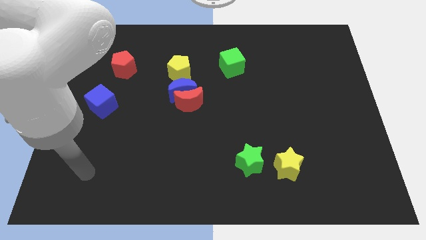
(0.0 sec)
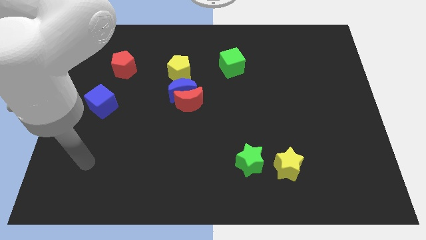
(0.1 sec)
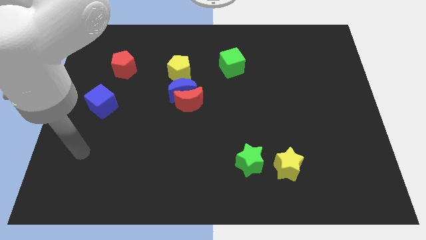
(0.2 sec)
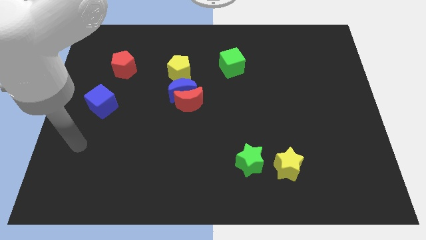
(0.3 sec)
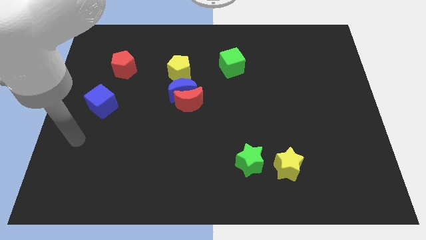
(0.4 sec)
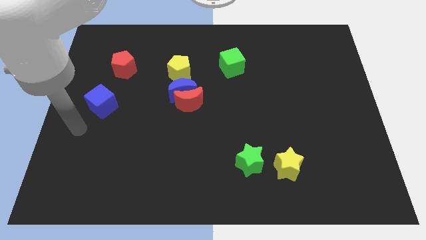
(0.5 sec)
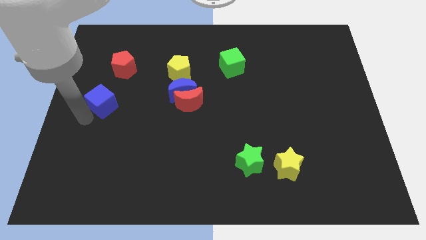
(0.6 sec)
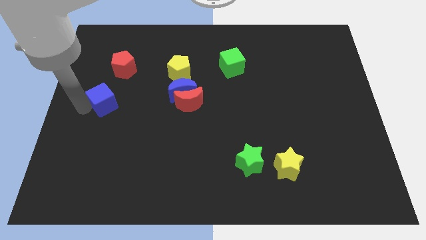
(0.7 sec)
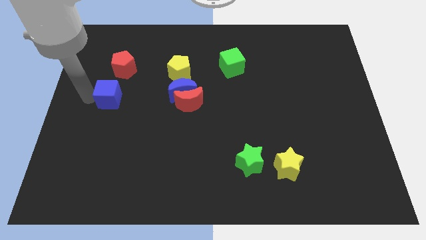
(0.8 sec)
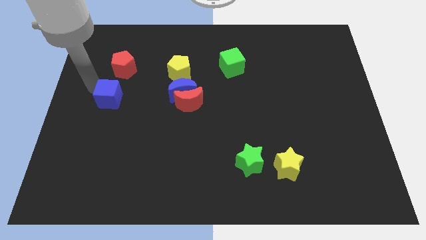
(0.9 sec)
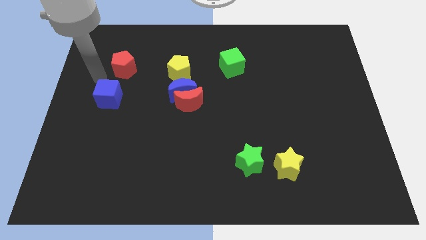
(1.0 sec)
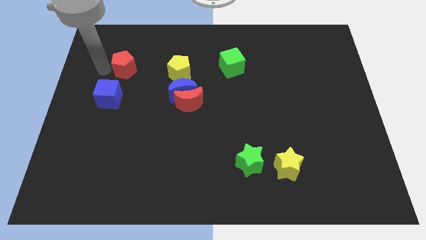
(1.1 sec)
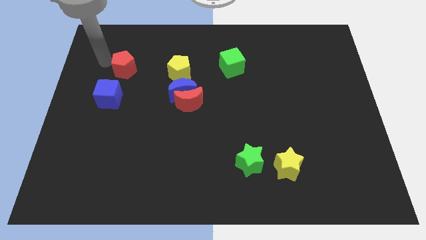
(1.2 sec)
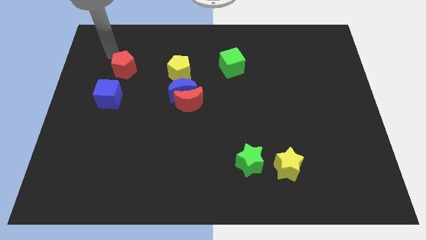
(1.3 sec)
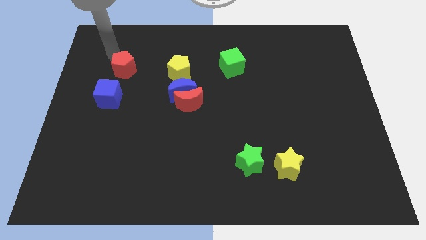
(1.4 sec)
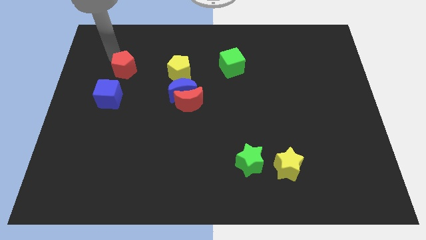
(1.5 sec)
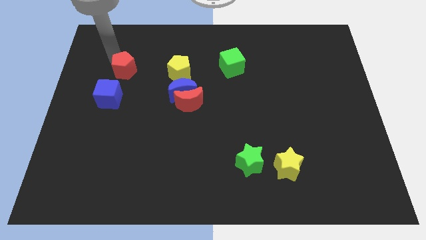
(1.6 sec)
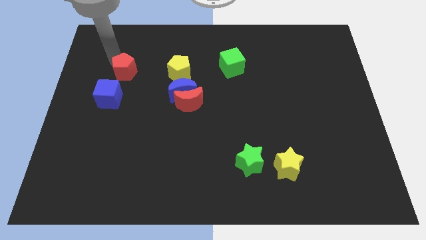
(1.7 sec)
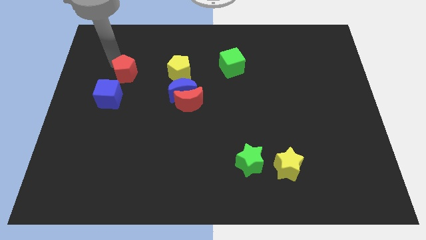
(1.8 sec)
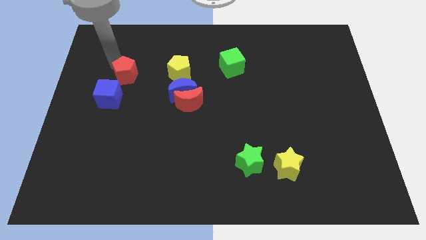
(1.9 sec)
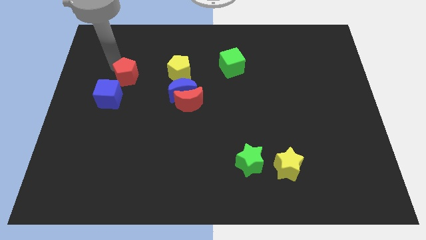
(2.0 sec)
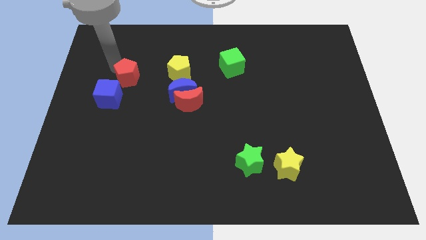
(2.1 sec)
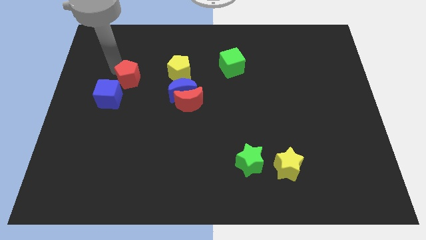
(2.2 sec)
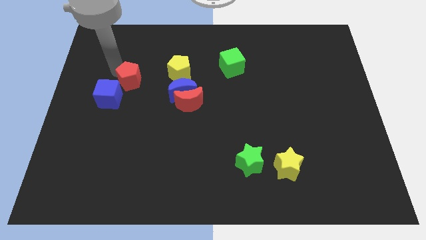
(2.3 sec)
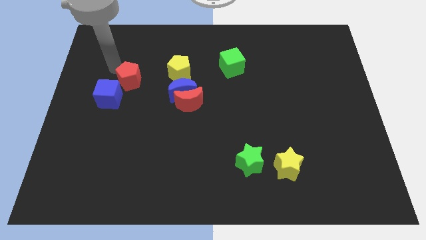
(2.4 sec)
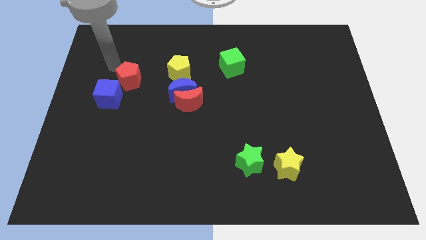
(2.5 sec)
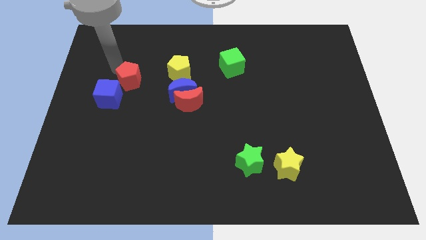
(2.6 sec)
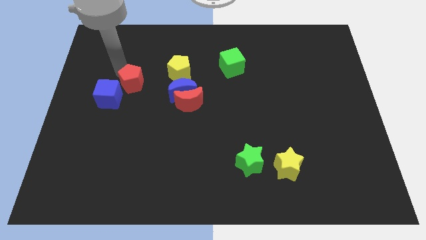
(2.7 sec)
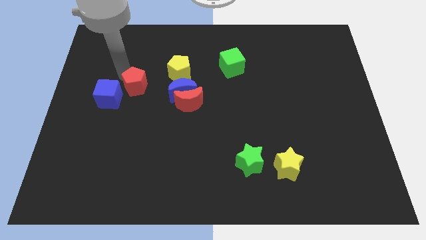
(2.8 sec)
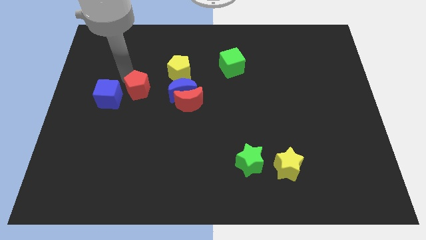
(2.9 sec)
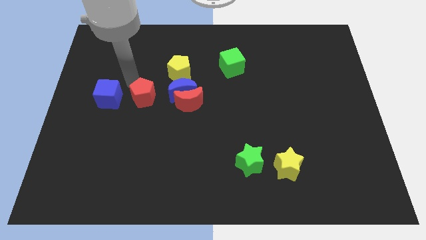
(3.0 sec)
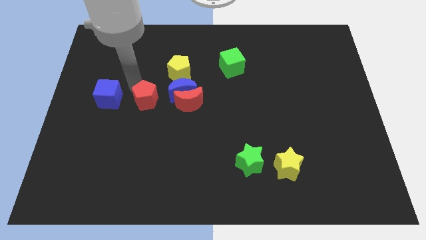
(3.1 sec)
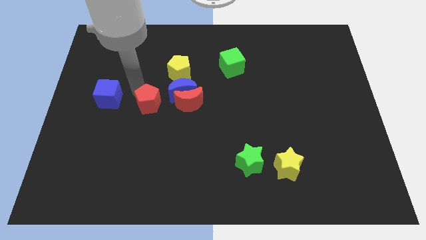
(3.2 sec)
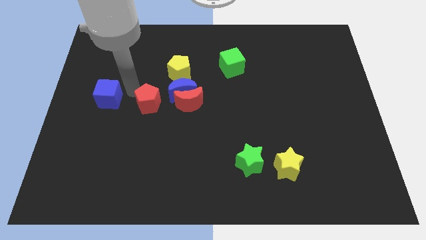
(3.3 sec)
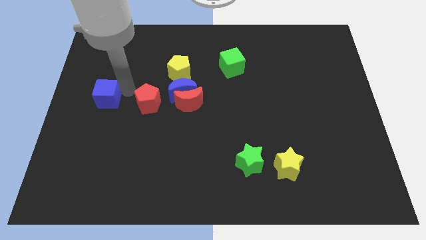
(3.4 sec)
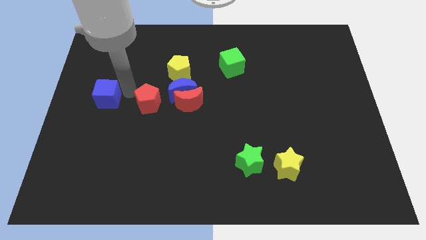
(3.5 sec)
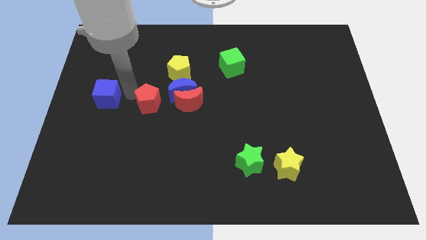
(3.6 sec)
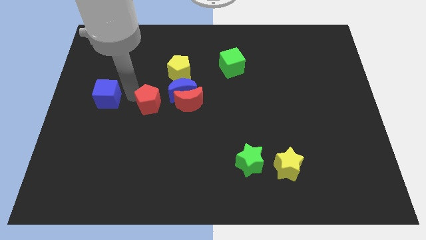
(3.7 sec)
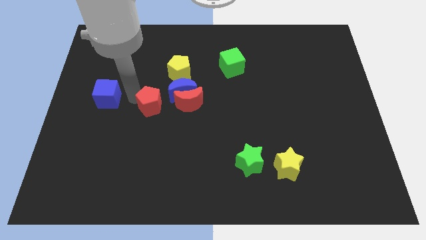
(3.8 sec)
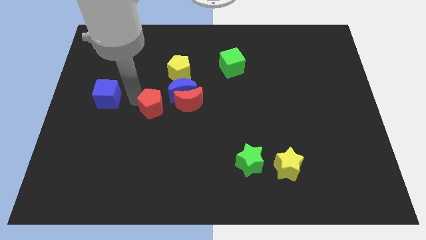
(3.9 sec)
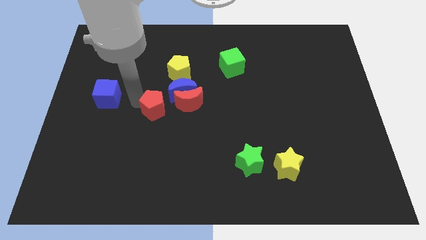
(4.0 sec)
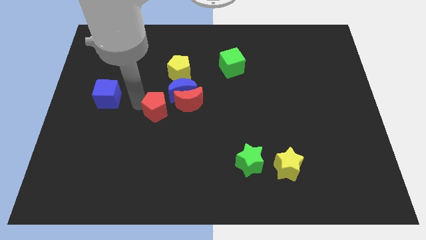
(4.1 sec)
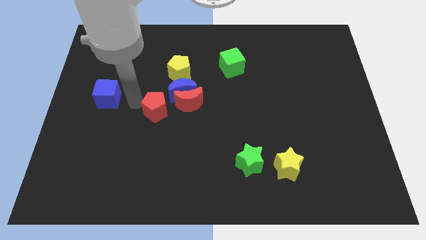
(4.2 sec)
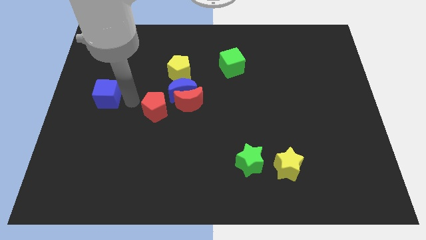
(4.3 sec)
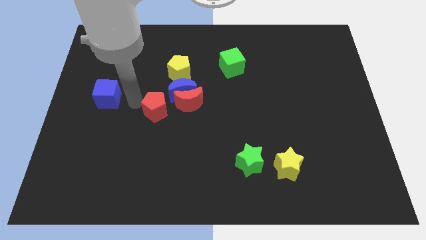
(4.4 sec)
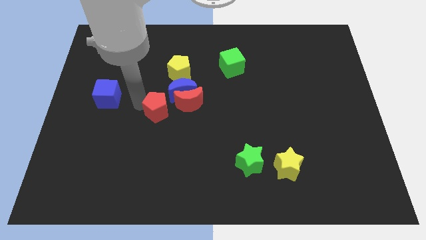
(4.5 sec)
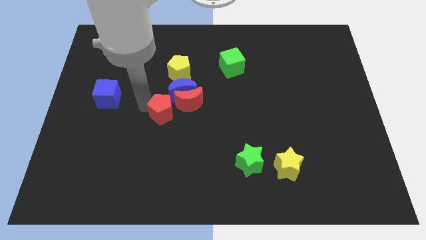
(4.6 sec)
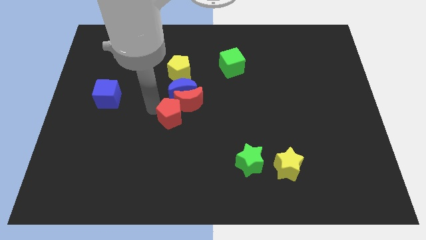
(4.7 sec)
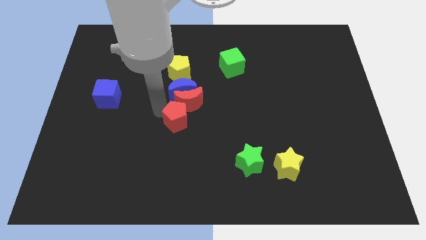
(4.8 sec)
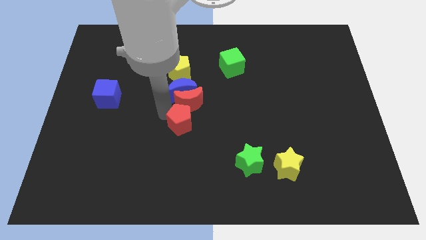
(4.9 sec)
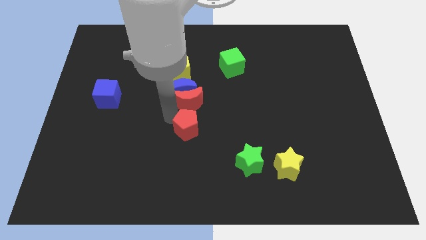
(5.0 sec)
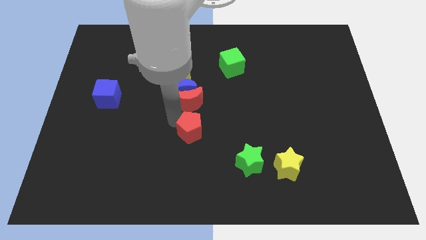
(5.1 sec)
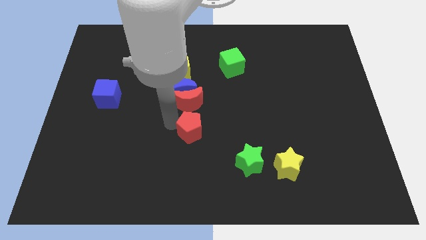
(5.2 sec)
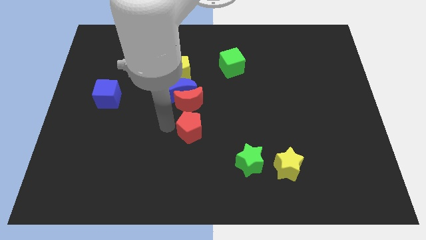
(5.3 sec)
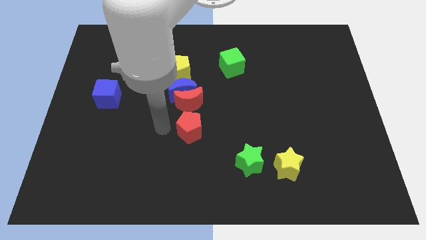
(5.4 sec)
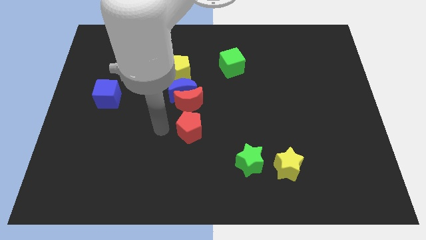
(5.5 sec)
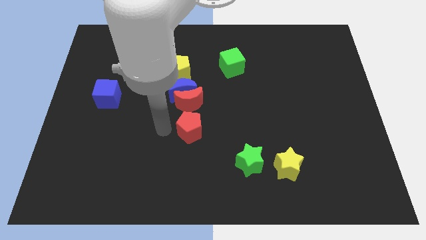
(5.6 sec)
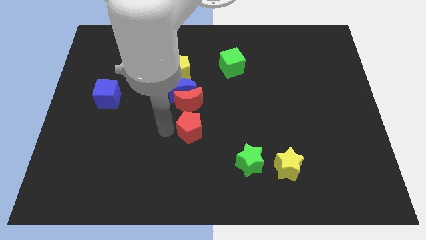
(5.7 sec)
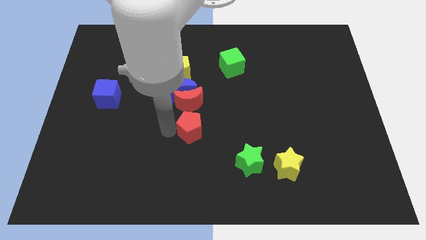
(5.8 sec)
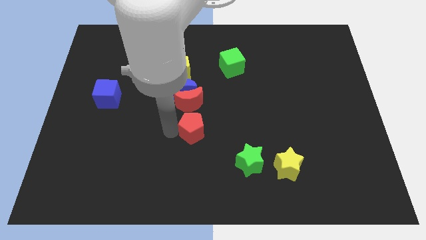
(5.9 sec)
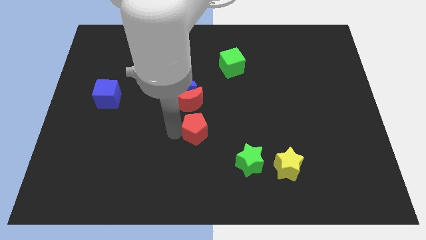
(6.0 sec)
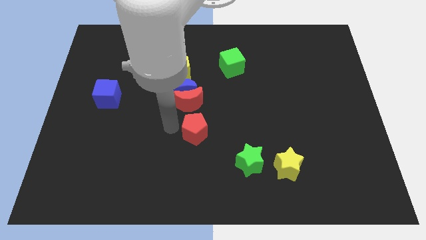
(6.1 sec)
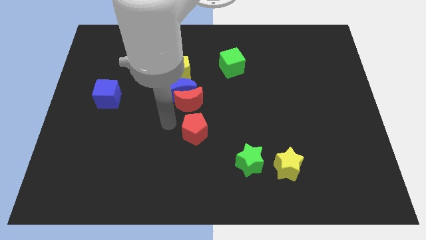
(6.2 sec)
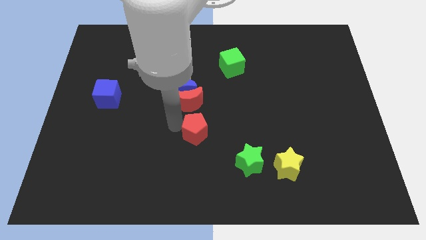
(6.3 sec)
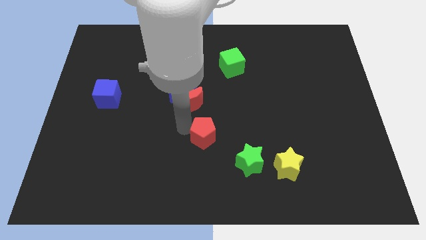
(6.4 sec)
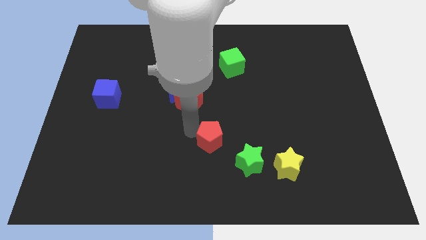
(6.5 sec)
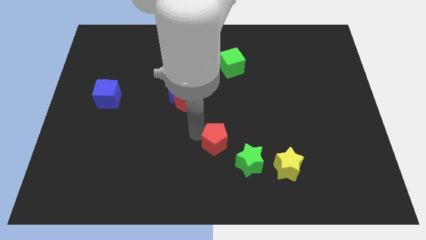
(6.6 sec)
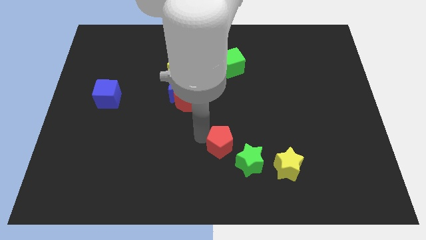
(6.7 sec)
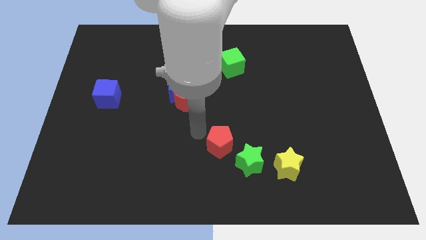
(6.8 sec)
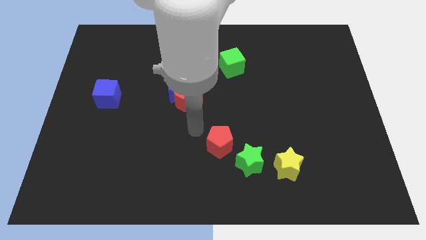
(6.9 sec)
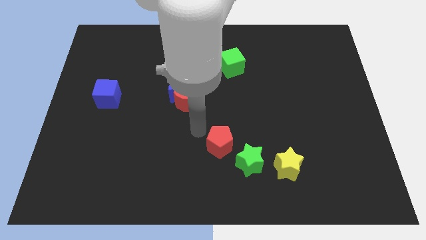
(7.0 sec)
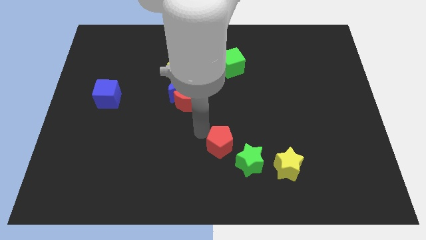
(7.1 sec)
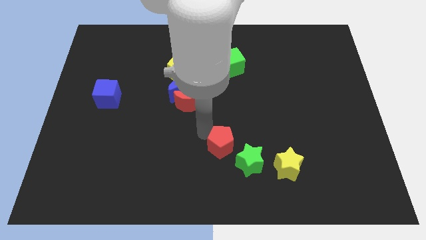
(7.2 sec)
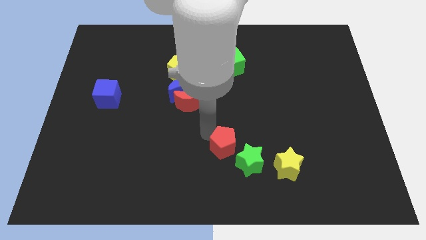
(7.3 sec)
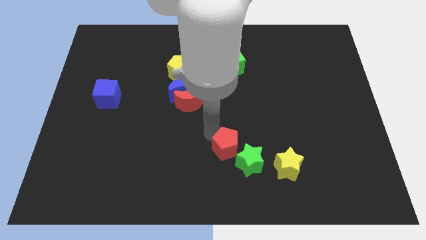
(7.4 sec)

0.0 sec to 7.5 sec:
slide the red pentagon to the green star
